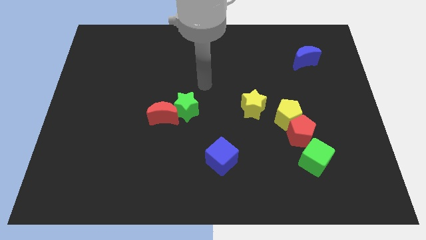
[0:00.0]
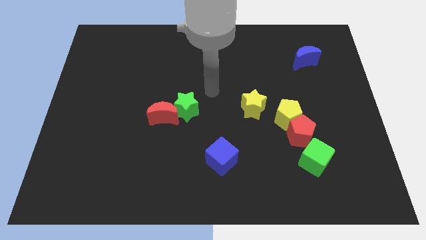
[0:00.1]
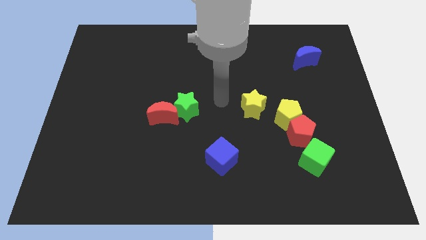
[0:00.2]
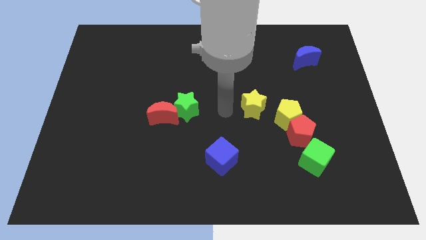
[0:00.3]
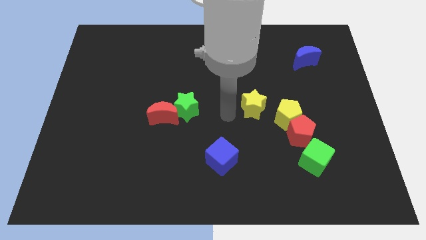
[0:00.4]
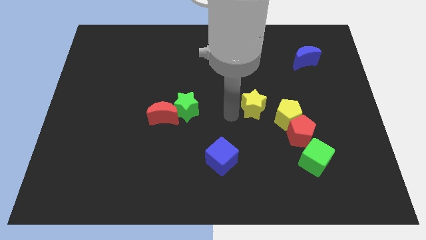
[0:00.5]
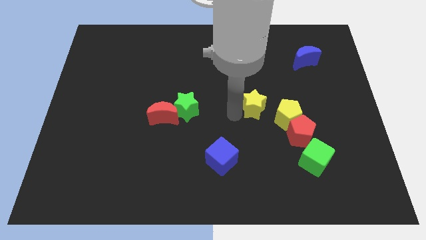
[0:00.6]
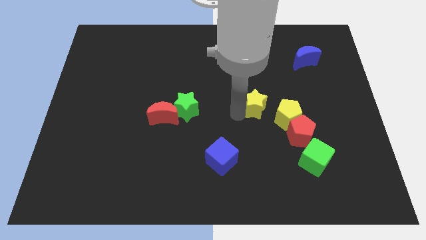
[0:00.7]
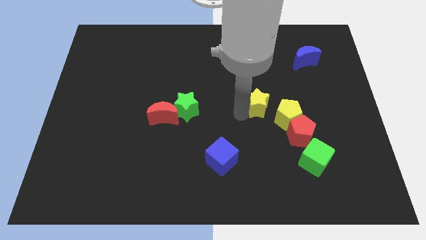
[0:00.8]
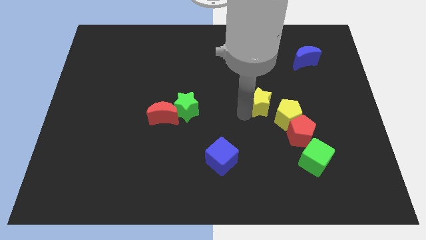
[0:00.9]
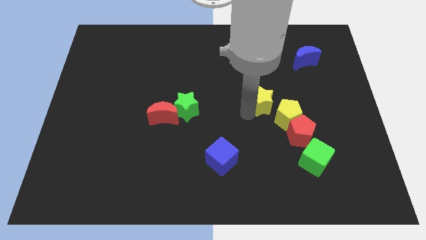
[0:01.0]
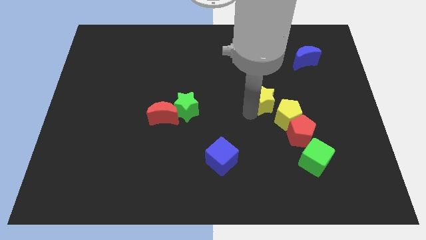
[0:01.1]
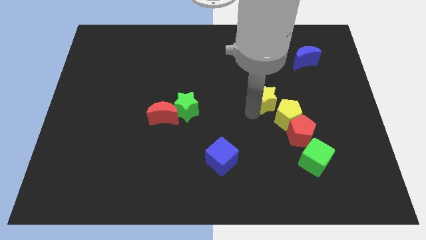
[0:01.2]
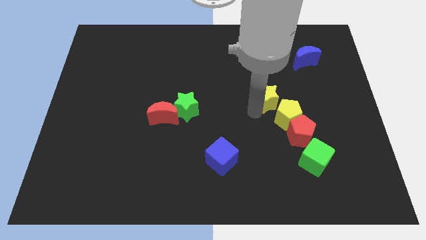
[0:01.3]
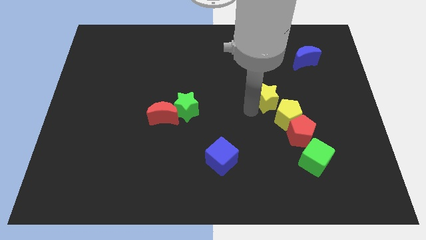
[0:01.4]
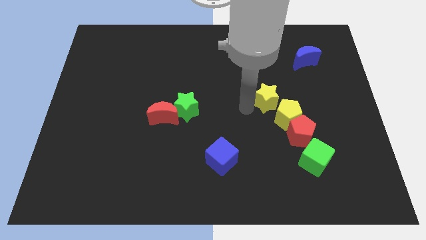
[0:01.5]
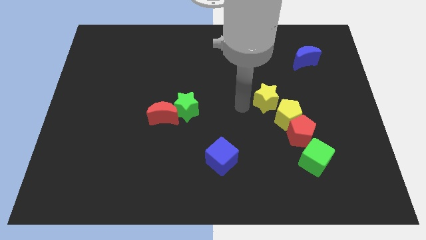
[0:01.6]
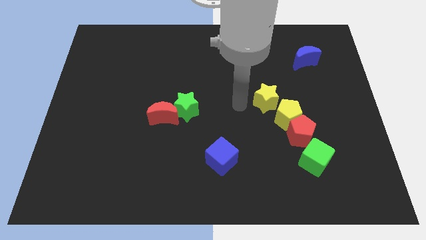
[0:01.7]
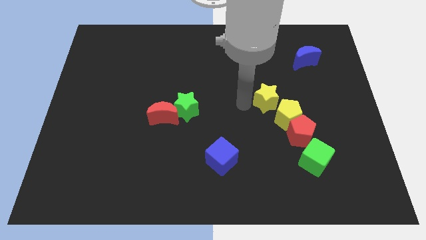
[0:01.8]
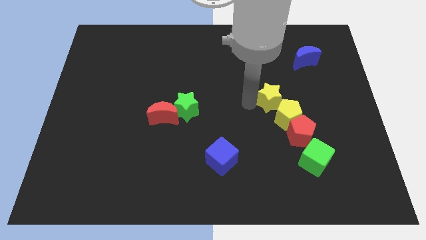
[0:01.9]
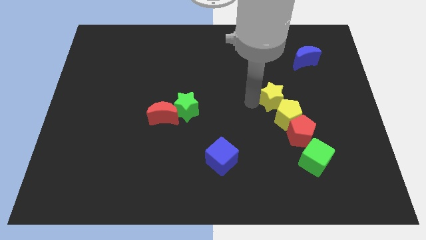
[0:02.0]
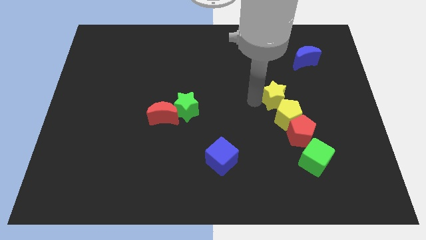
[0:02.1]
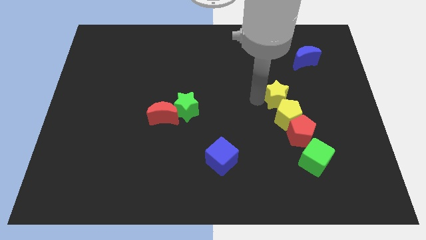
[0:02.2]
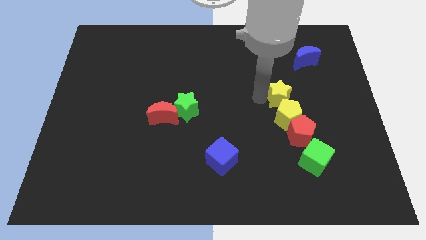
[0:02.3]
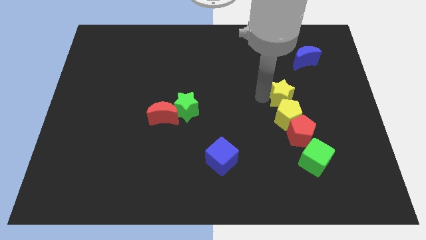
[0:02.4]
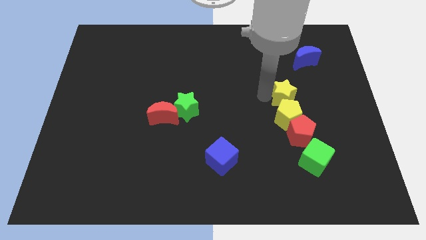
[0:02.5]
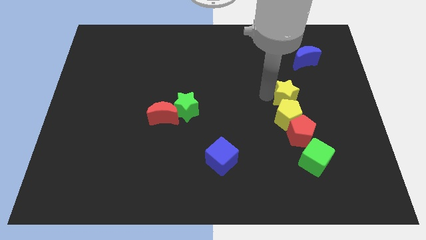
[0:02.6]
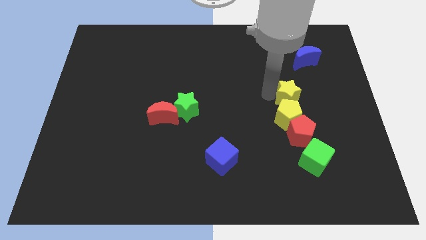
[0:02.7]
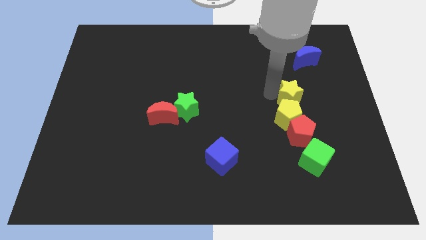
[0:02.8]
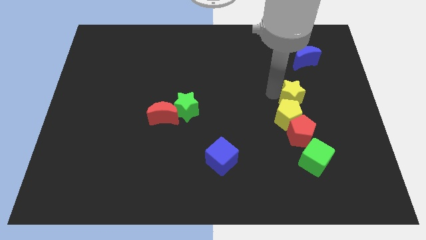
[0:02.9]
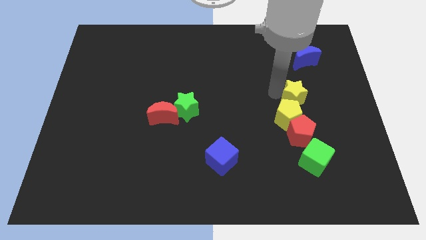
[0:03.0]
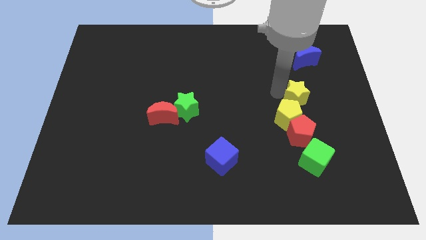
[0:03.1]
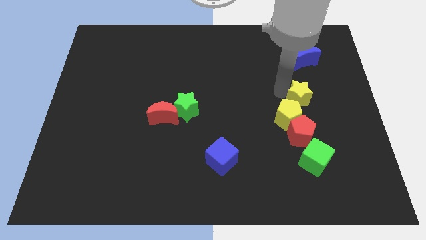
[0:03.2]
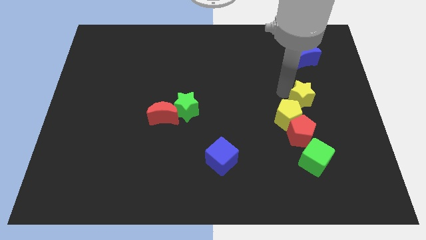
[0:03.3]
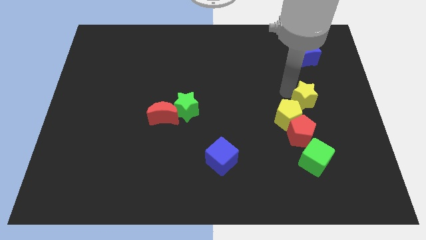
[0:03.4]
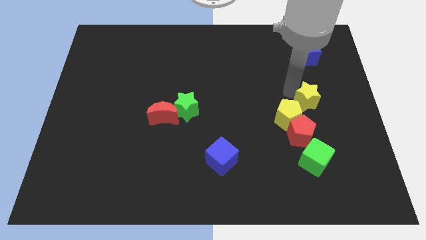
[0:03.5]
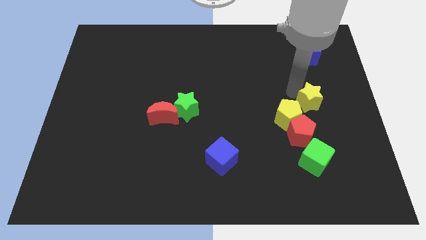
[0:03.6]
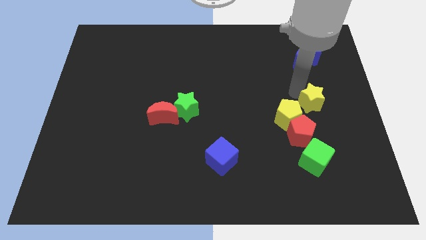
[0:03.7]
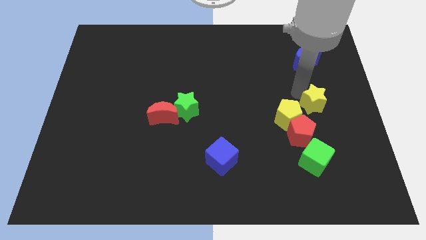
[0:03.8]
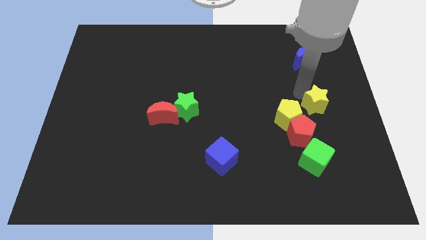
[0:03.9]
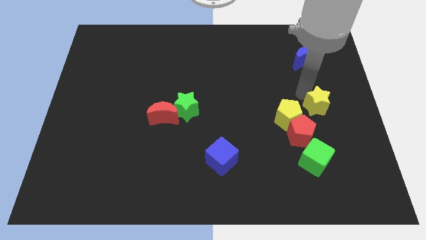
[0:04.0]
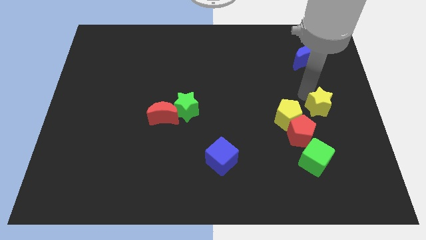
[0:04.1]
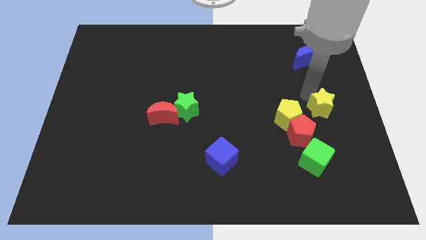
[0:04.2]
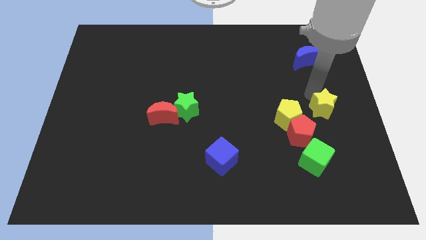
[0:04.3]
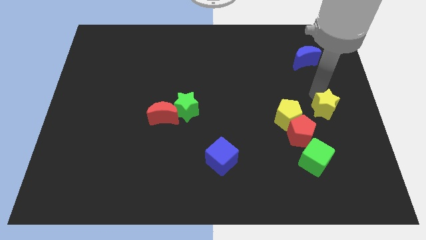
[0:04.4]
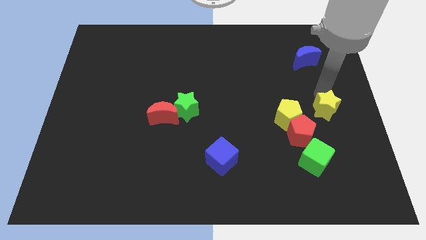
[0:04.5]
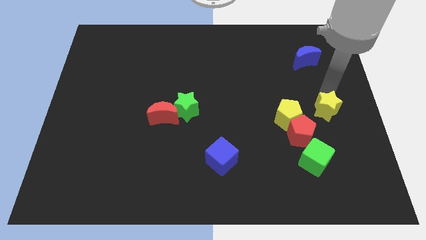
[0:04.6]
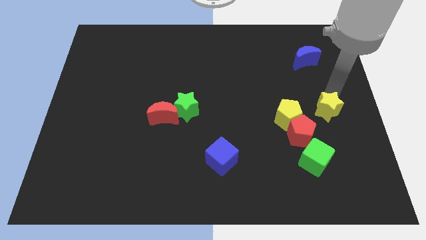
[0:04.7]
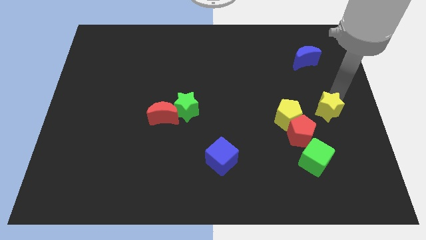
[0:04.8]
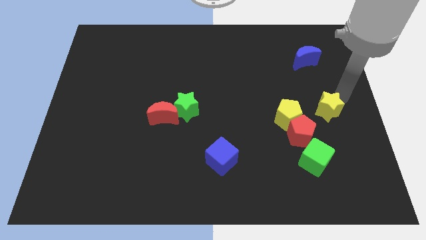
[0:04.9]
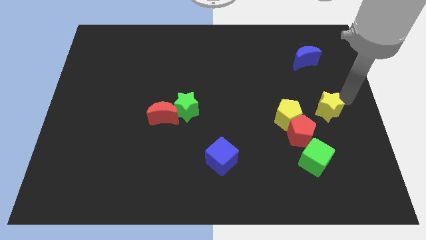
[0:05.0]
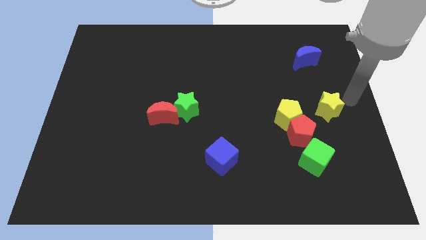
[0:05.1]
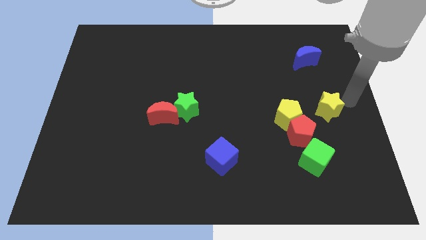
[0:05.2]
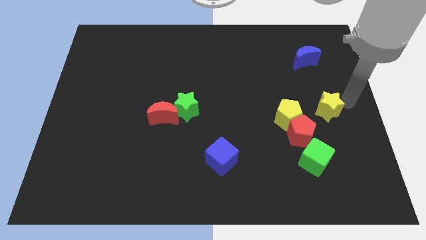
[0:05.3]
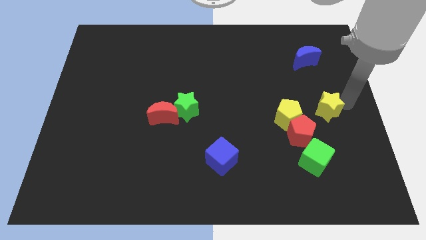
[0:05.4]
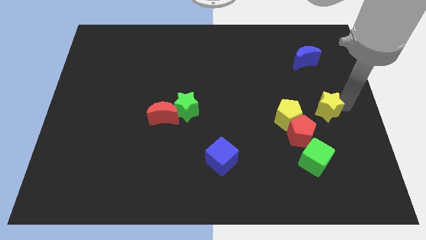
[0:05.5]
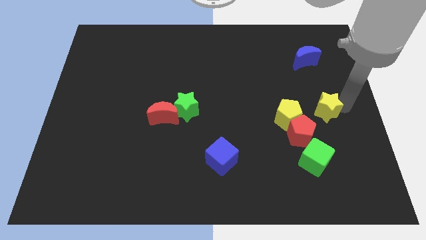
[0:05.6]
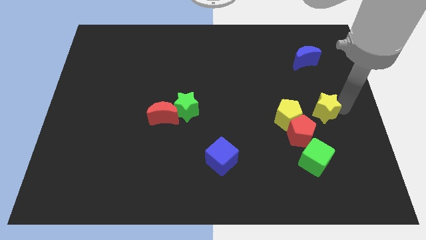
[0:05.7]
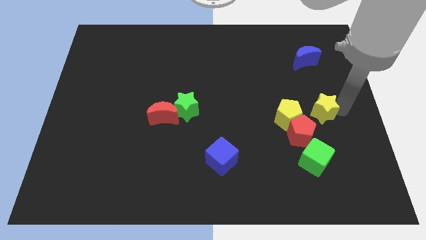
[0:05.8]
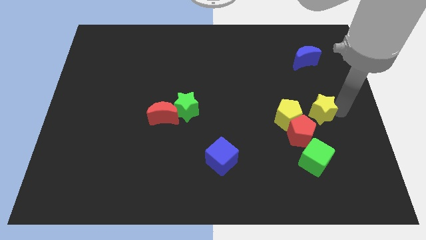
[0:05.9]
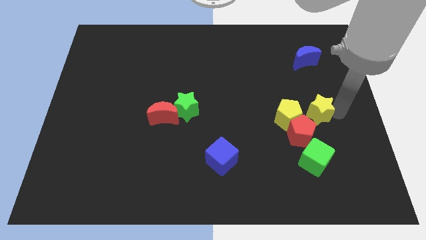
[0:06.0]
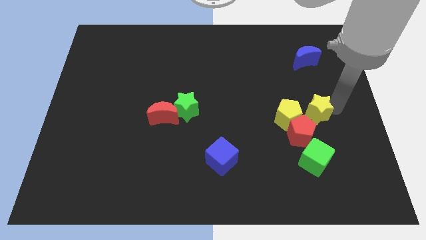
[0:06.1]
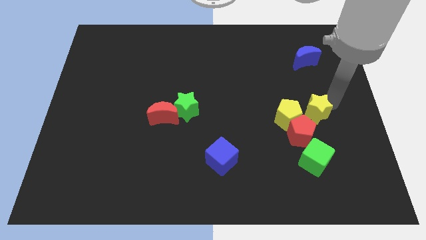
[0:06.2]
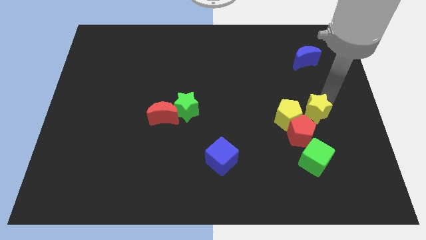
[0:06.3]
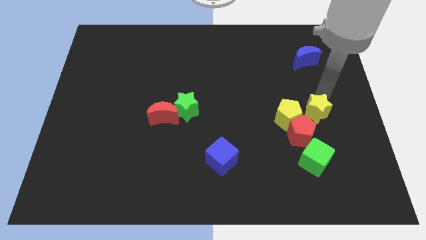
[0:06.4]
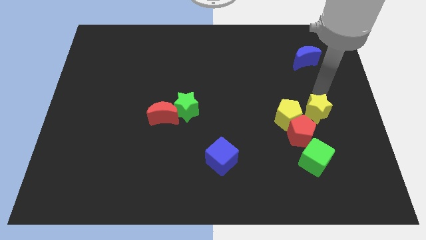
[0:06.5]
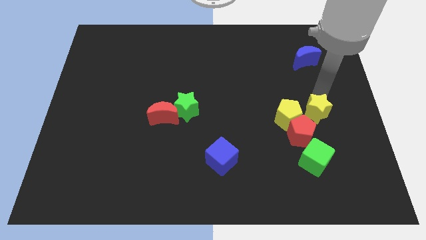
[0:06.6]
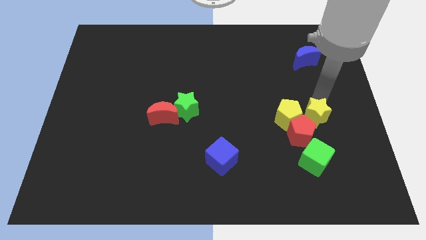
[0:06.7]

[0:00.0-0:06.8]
move the yellow star to the bottom right of the yellow pentagon

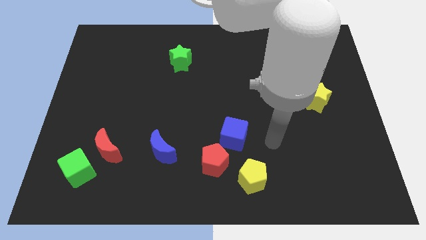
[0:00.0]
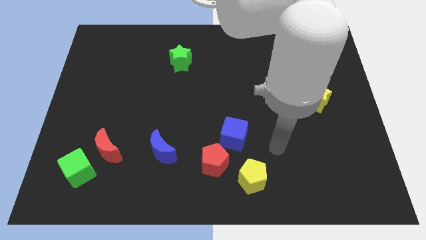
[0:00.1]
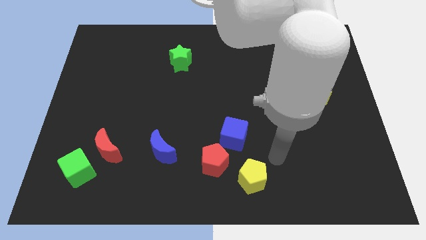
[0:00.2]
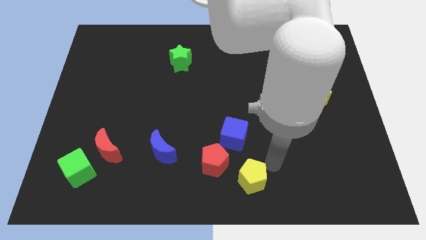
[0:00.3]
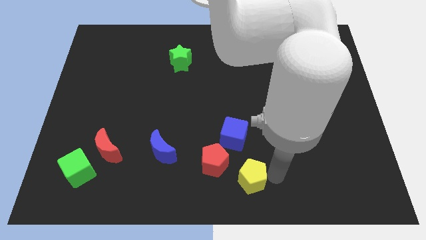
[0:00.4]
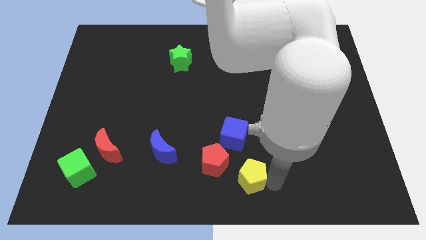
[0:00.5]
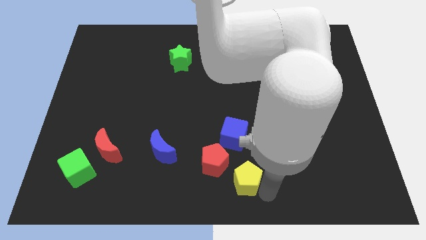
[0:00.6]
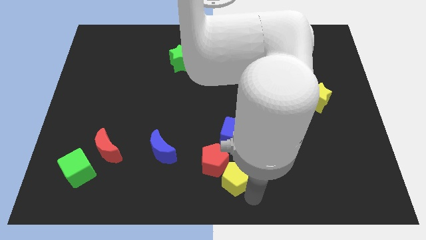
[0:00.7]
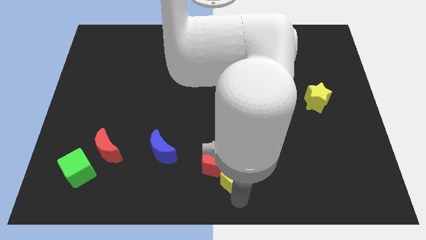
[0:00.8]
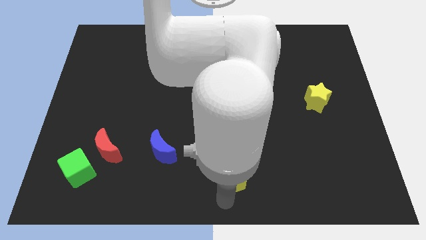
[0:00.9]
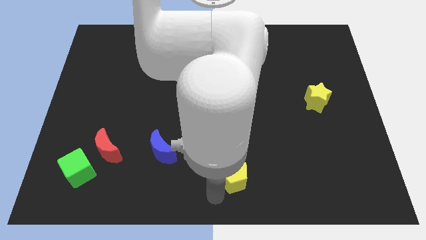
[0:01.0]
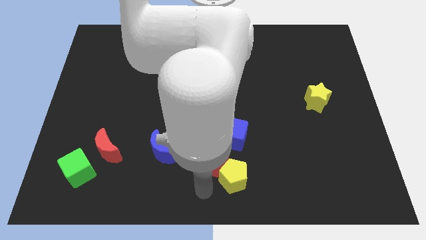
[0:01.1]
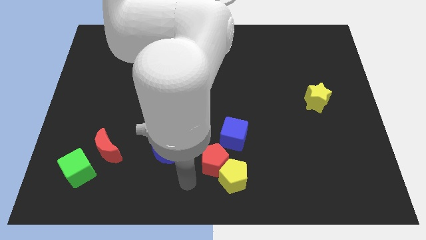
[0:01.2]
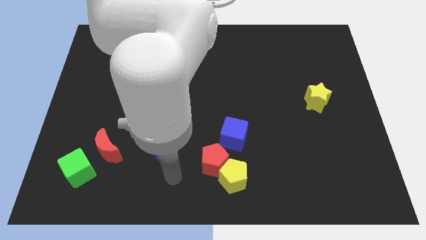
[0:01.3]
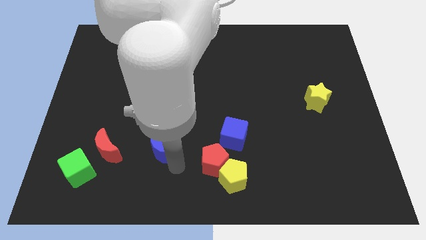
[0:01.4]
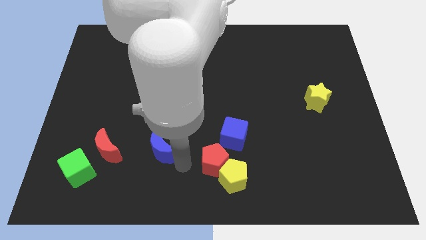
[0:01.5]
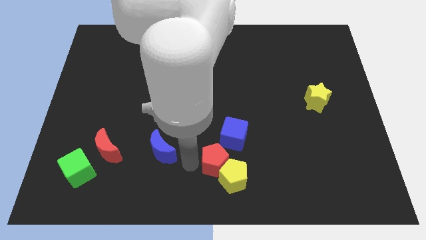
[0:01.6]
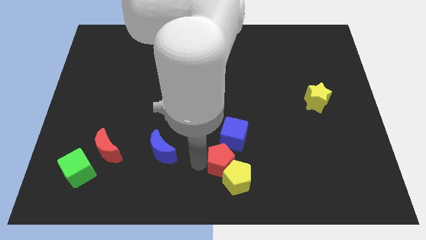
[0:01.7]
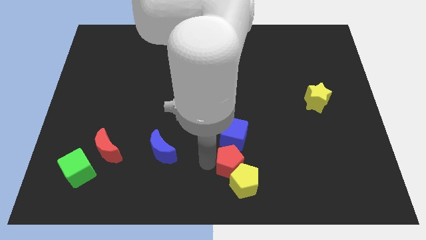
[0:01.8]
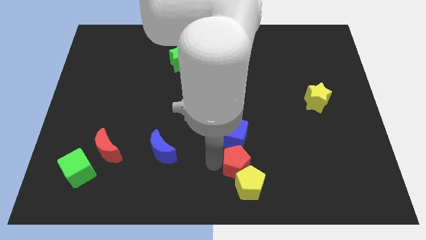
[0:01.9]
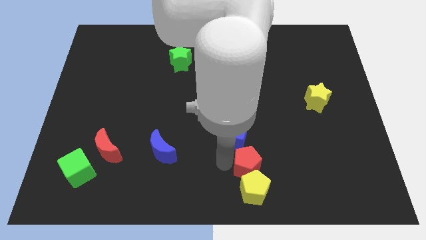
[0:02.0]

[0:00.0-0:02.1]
slide the red pentagon to the top right side of the yellow pentagon
